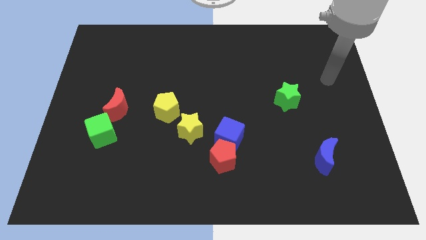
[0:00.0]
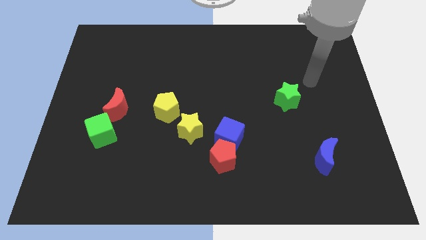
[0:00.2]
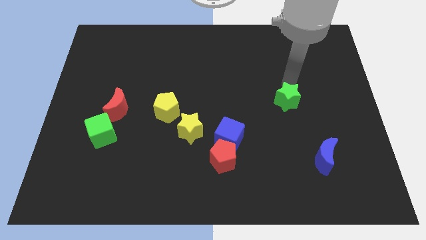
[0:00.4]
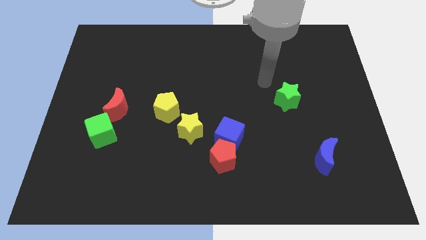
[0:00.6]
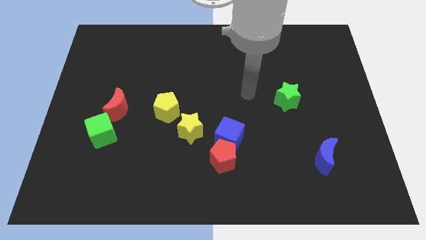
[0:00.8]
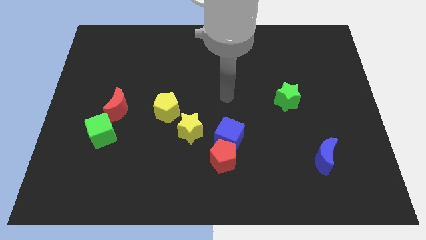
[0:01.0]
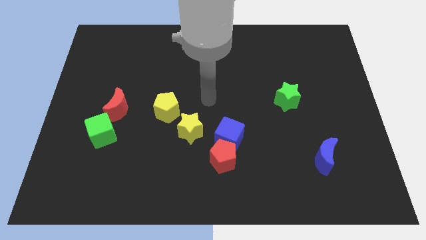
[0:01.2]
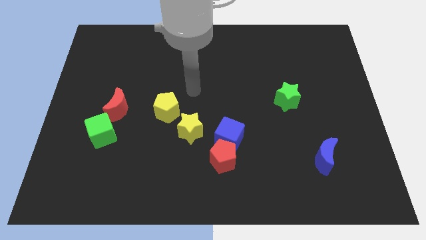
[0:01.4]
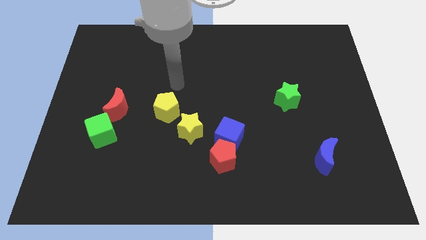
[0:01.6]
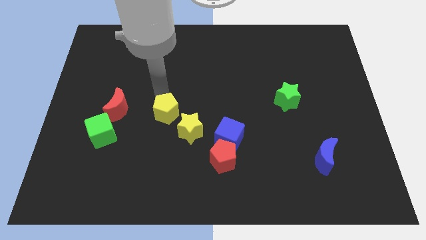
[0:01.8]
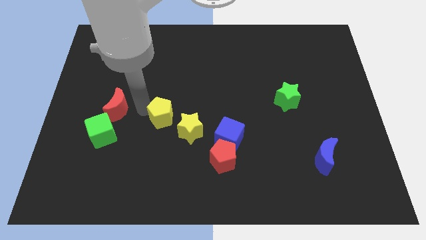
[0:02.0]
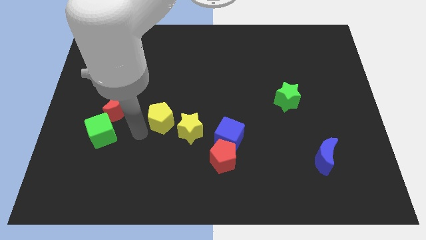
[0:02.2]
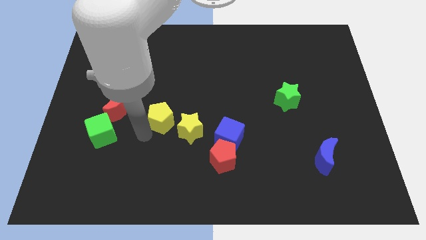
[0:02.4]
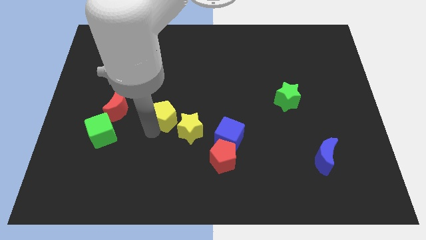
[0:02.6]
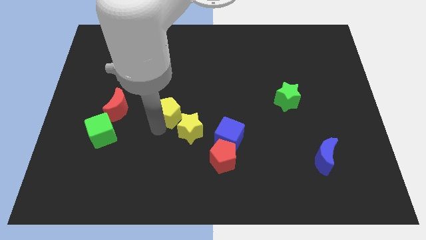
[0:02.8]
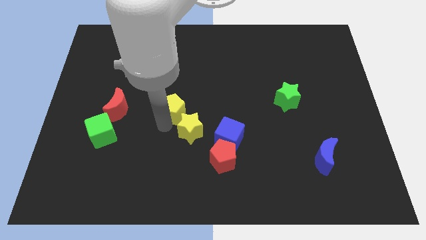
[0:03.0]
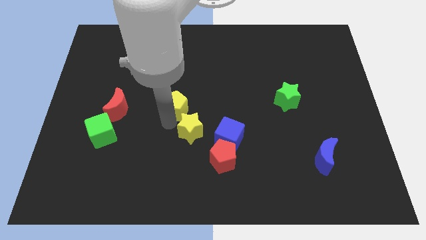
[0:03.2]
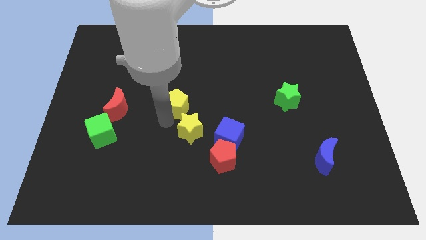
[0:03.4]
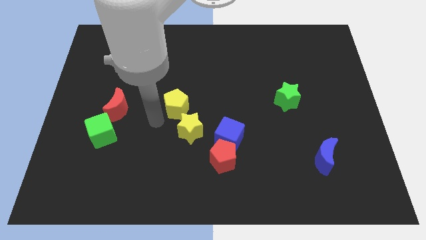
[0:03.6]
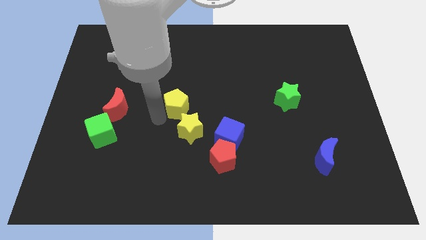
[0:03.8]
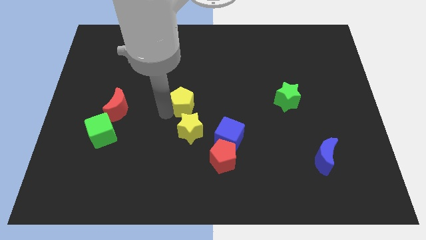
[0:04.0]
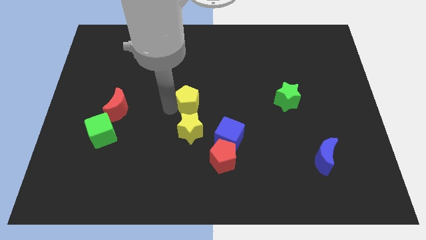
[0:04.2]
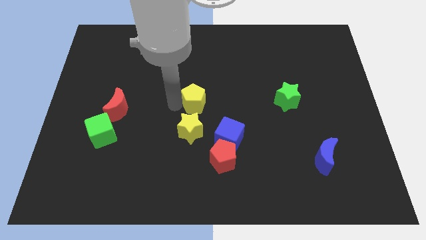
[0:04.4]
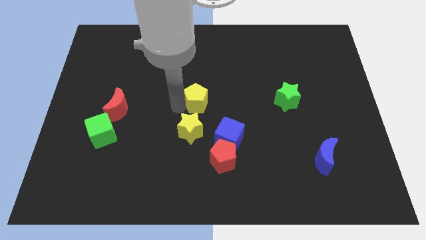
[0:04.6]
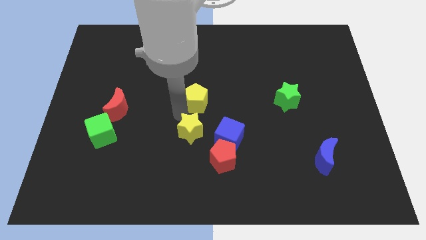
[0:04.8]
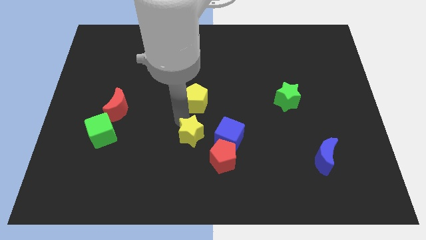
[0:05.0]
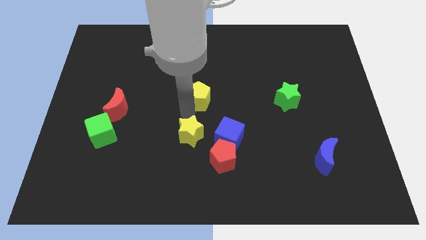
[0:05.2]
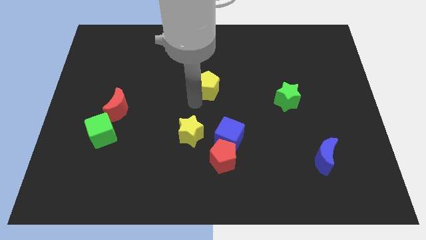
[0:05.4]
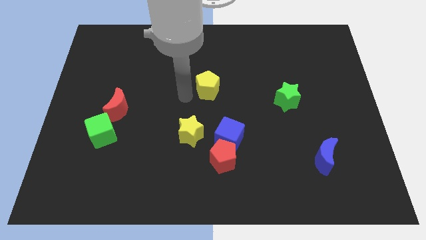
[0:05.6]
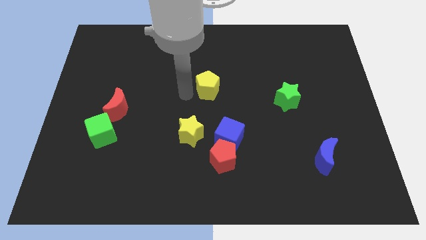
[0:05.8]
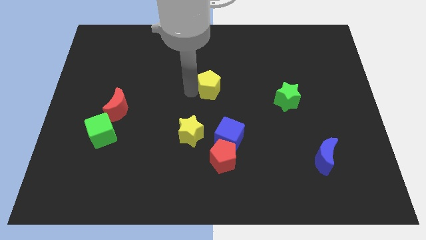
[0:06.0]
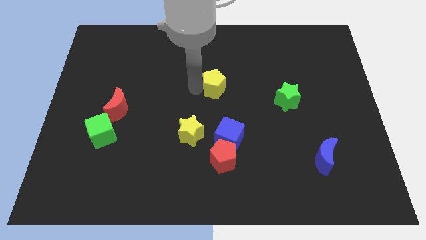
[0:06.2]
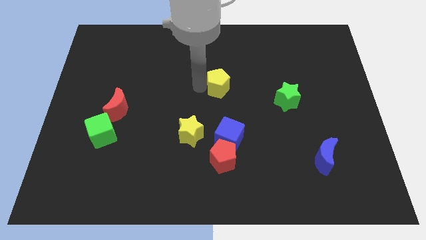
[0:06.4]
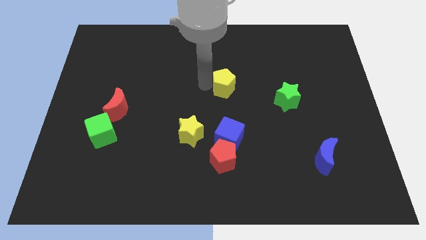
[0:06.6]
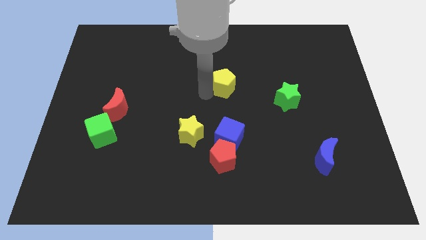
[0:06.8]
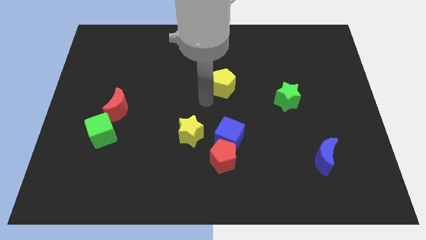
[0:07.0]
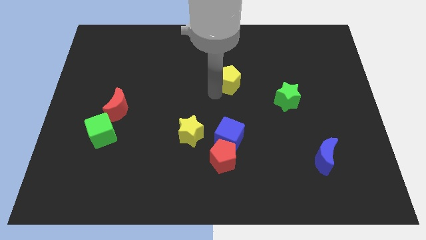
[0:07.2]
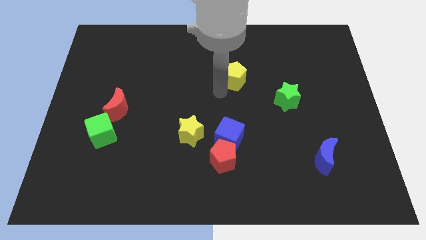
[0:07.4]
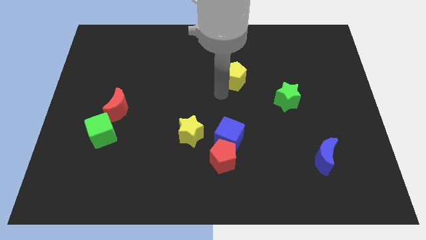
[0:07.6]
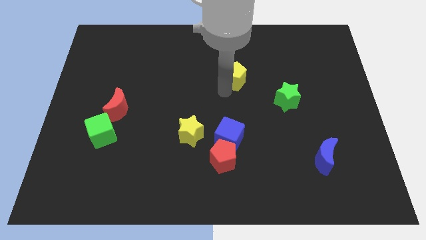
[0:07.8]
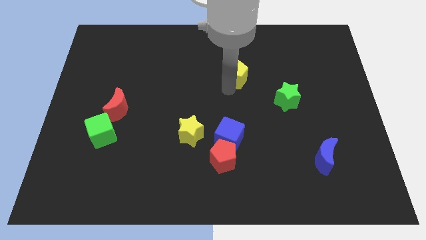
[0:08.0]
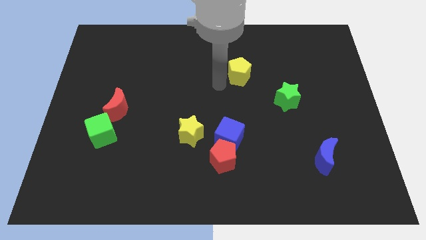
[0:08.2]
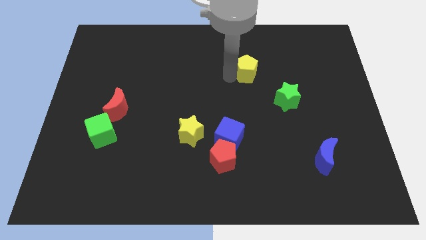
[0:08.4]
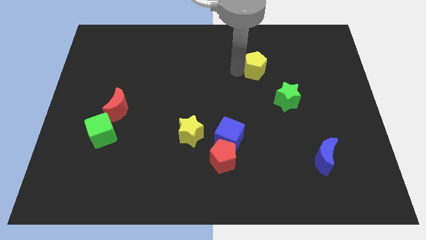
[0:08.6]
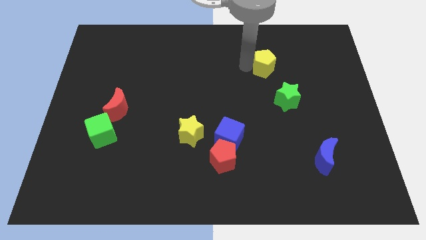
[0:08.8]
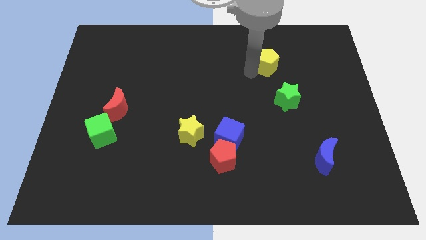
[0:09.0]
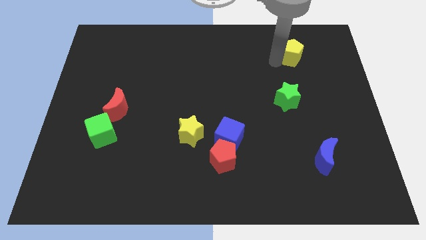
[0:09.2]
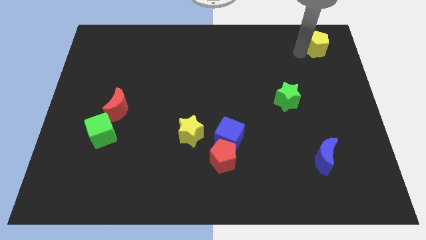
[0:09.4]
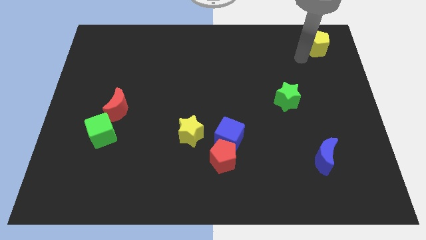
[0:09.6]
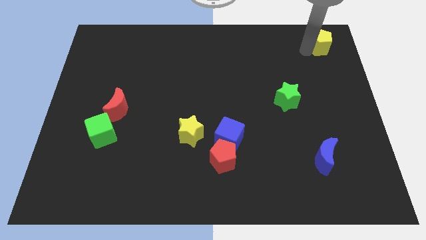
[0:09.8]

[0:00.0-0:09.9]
push the yellow pentagon to the upper right corner
